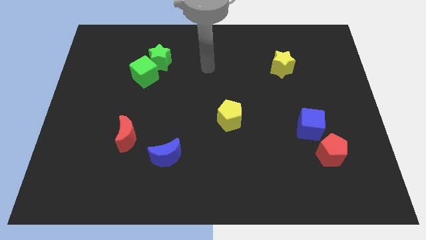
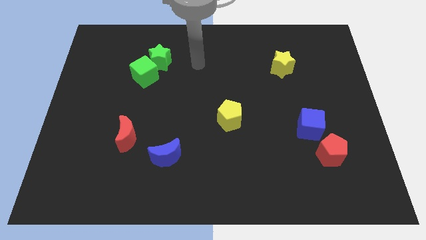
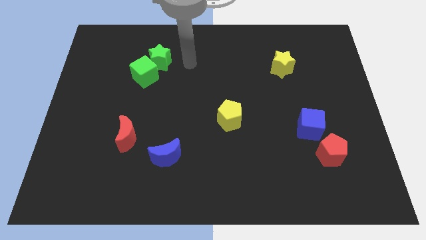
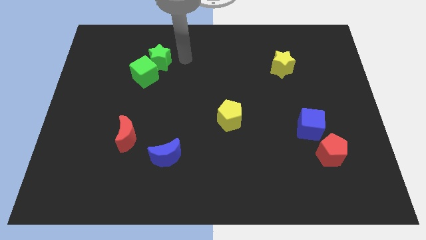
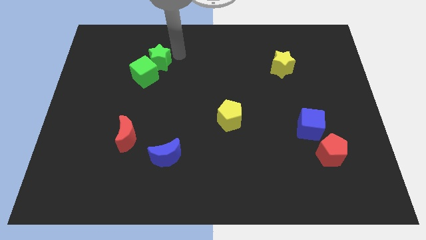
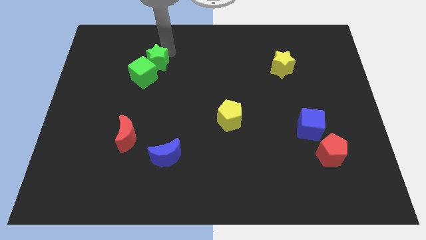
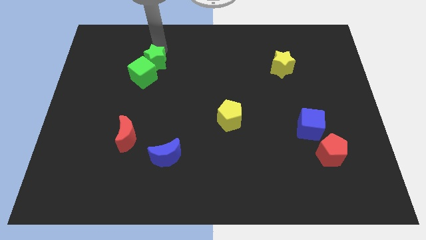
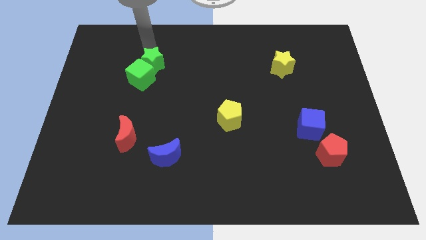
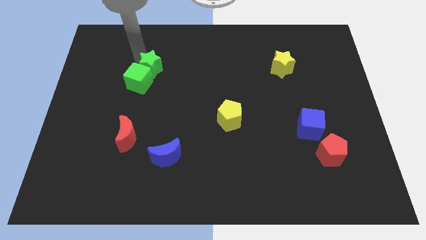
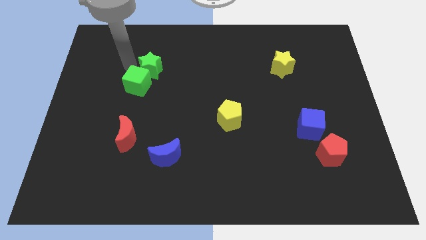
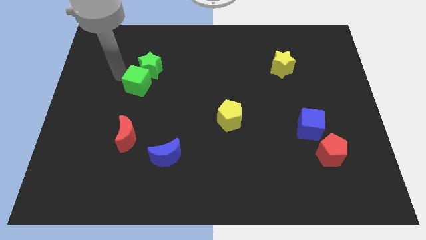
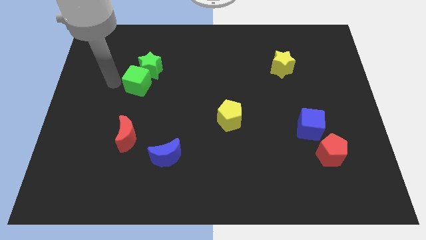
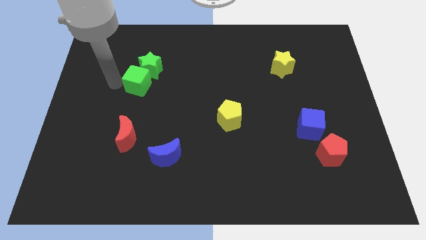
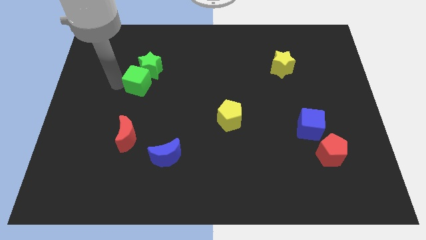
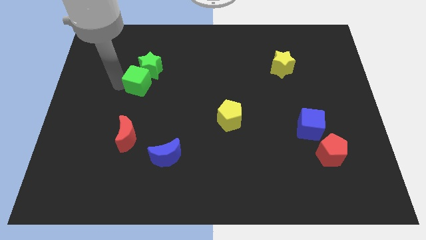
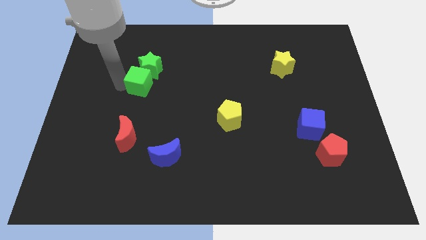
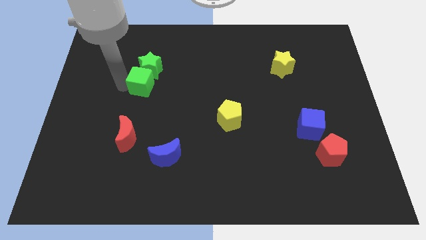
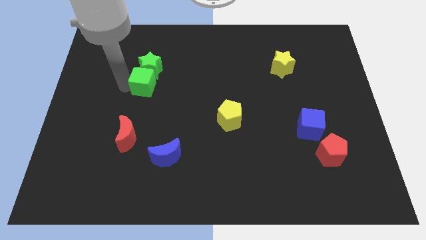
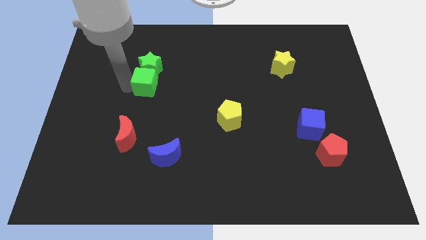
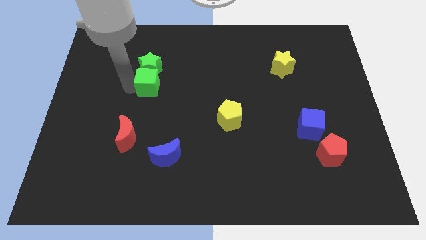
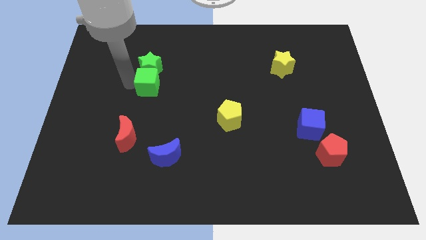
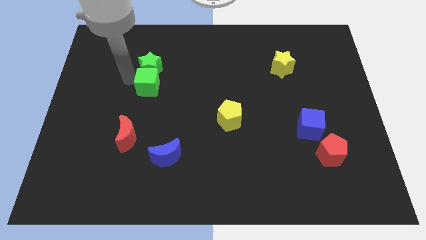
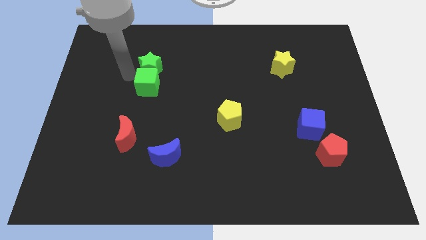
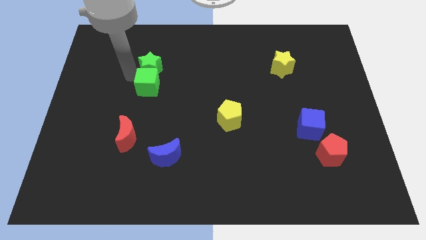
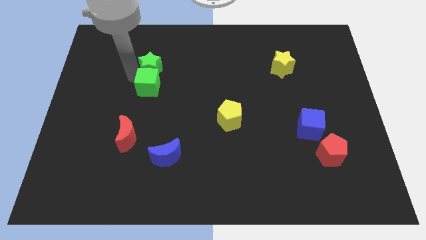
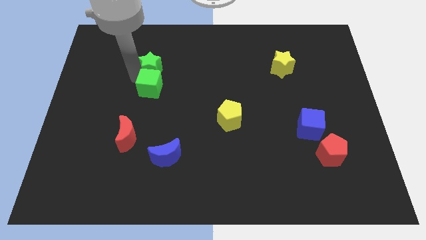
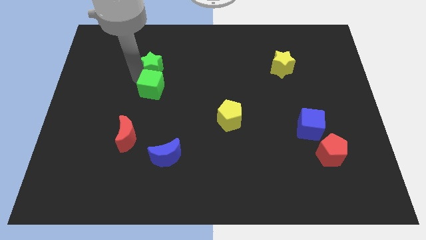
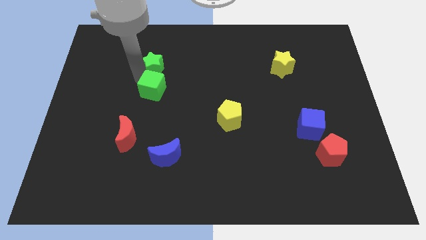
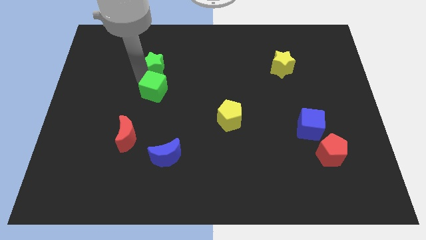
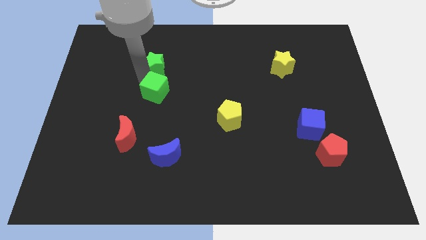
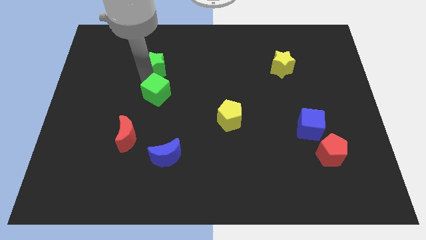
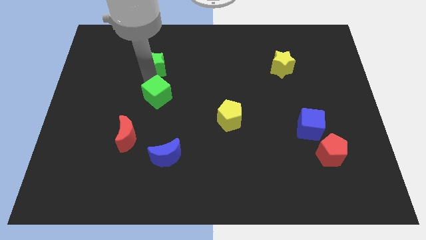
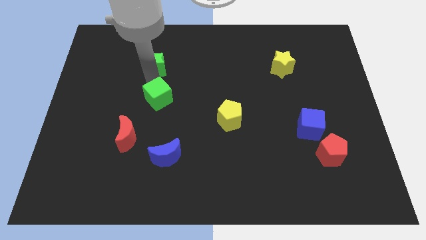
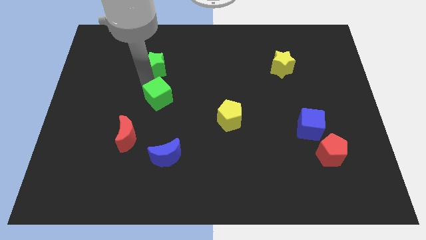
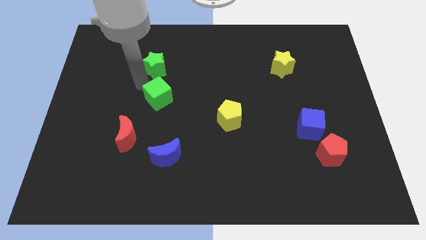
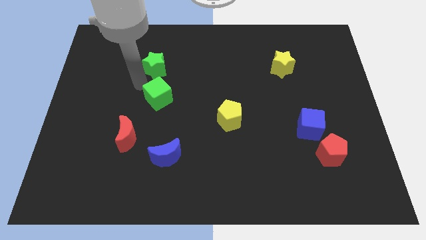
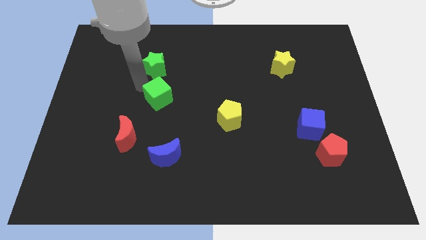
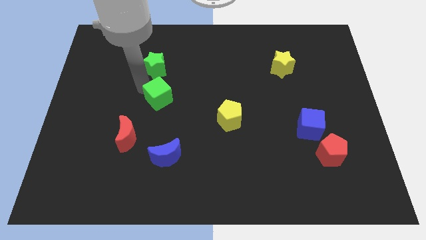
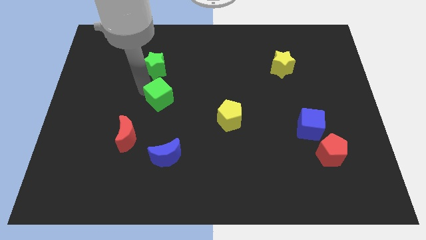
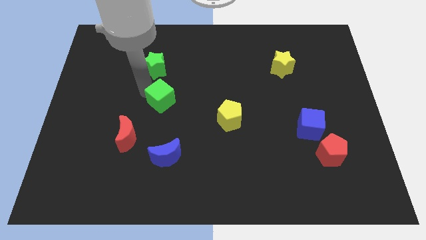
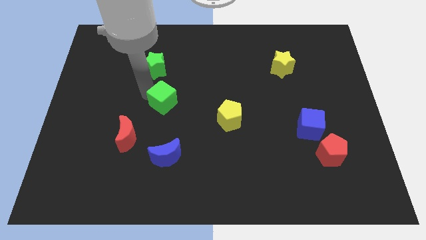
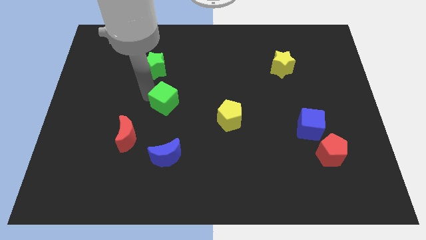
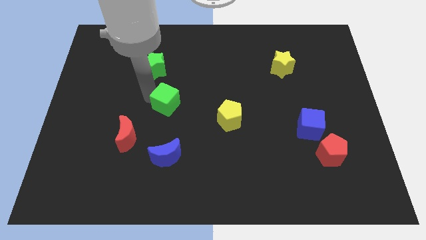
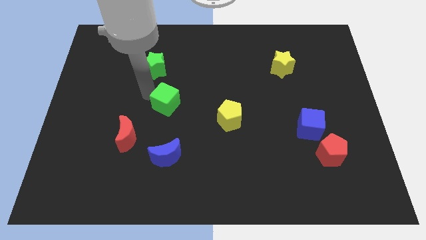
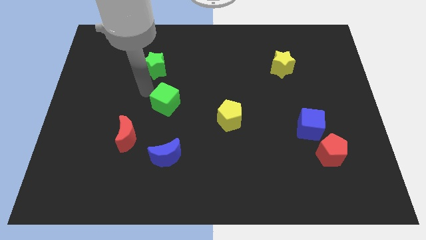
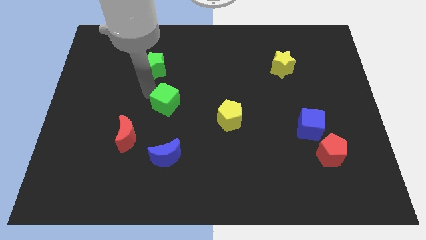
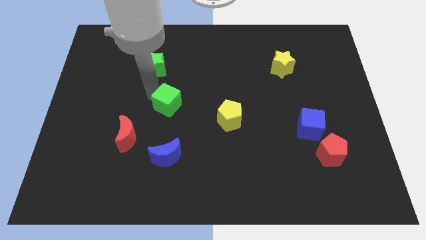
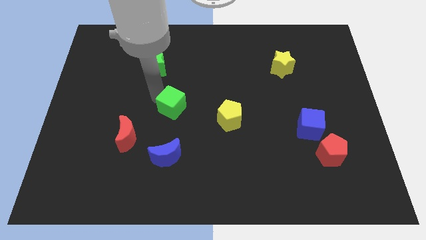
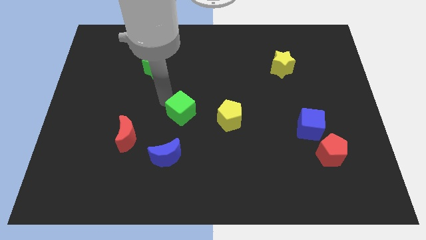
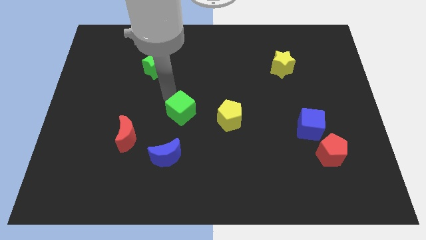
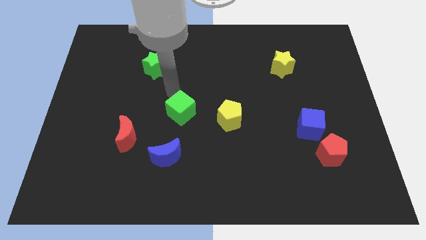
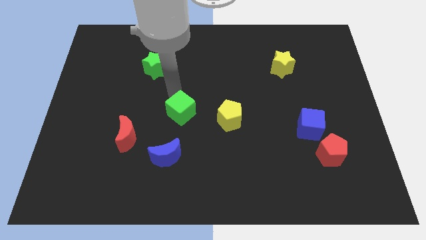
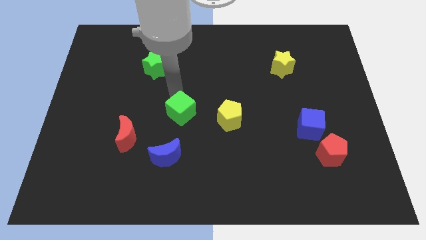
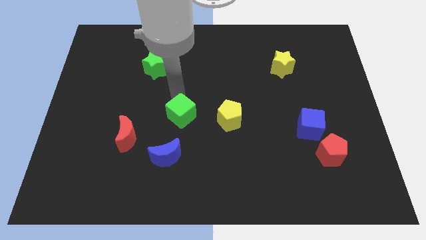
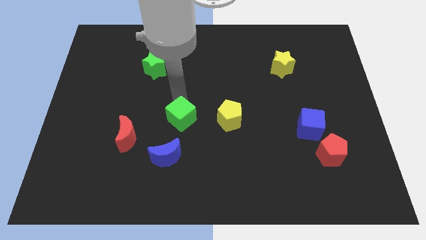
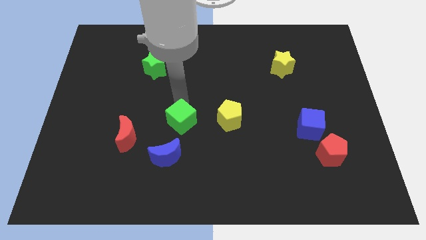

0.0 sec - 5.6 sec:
slide the green cube diagonally up and to the right of the blue moon

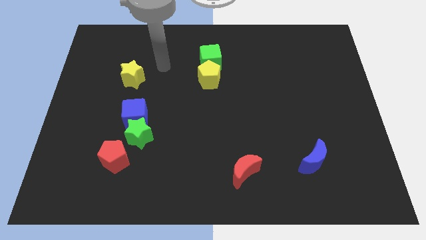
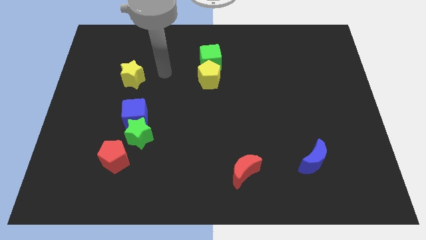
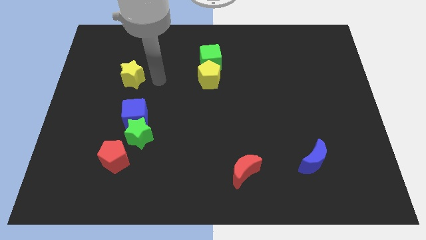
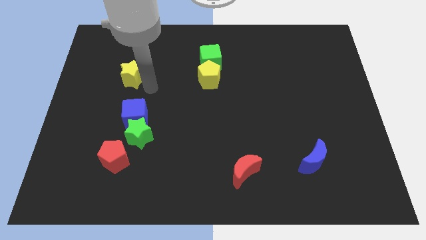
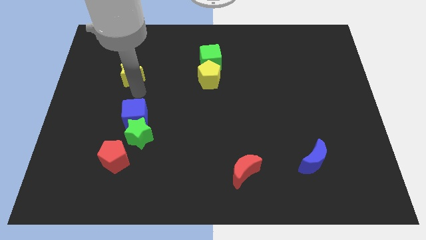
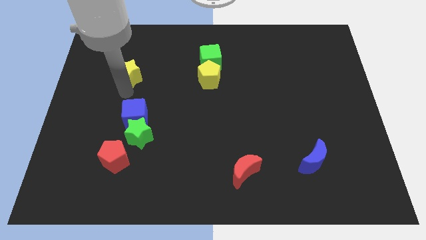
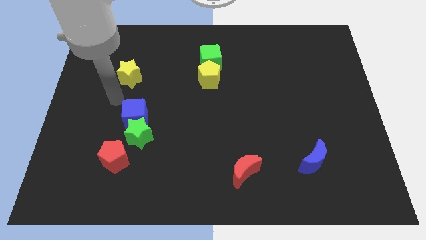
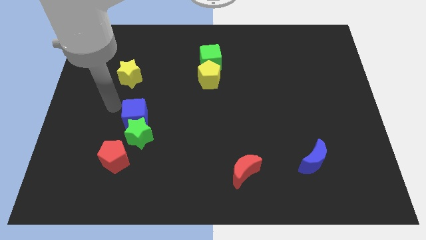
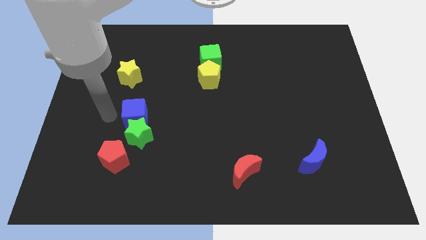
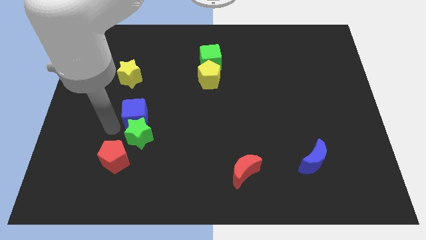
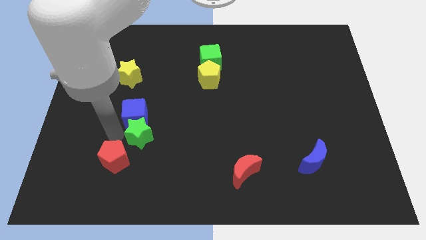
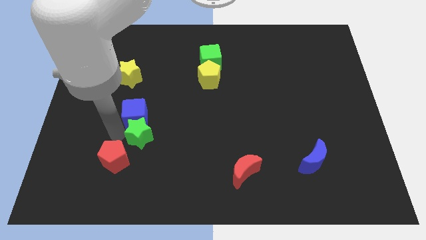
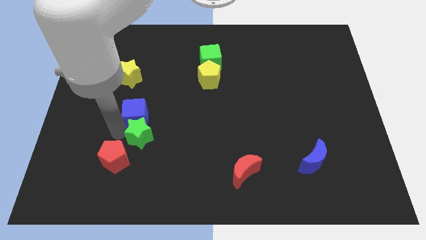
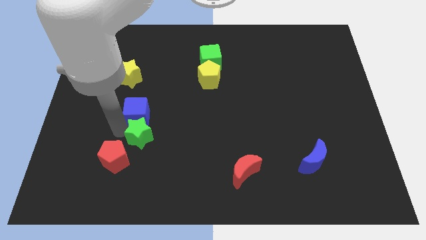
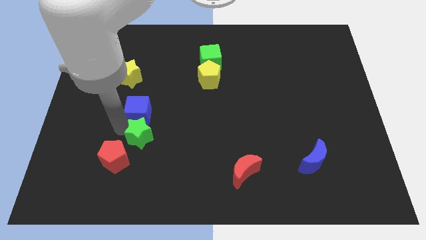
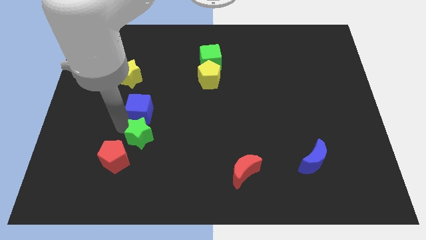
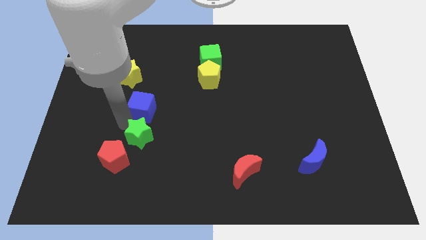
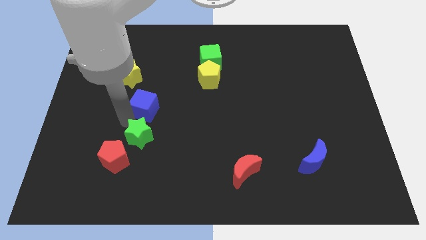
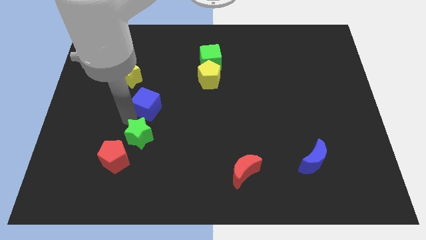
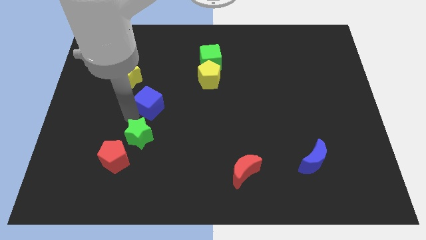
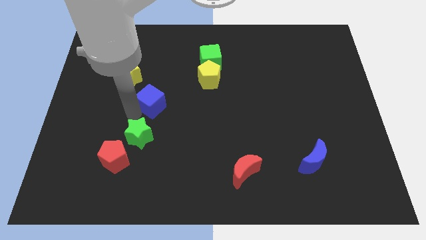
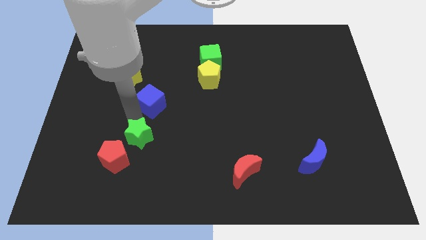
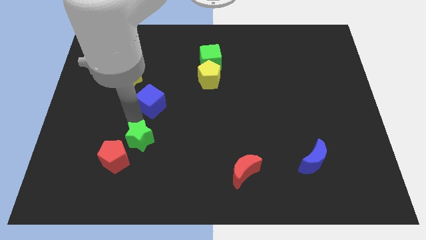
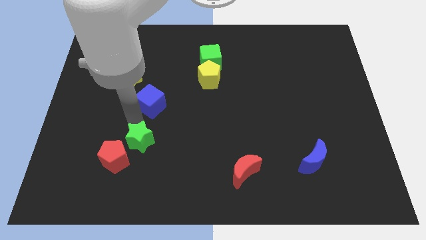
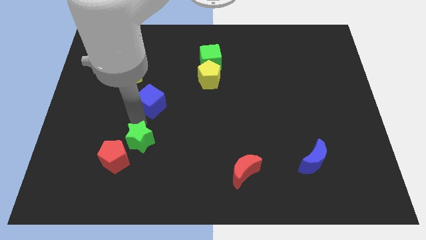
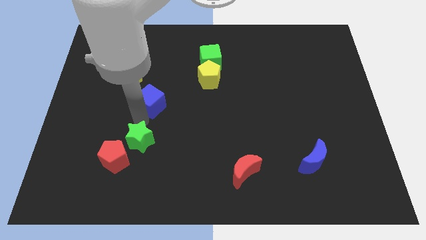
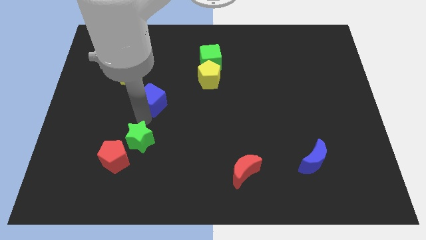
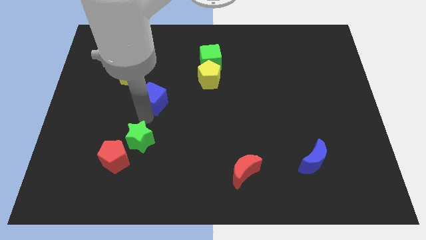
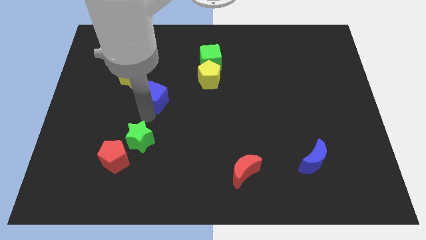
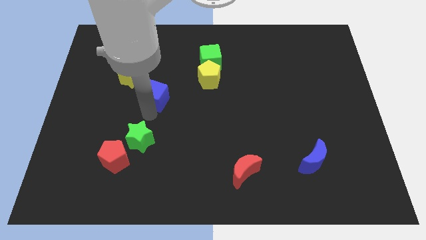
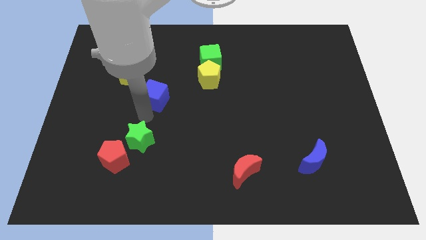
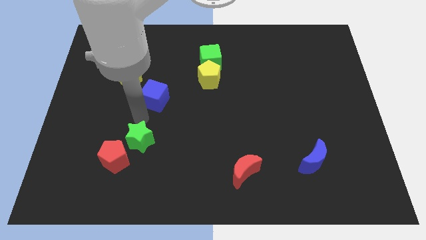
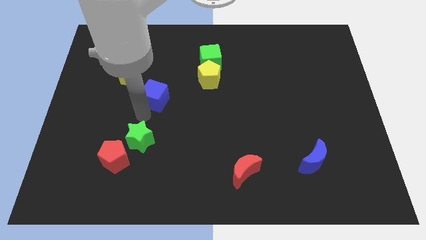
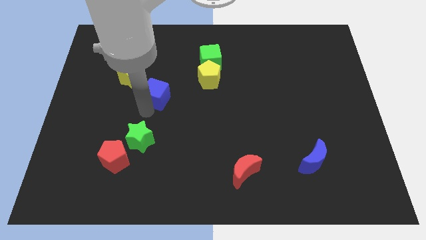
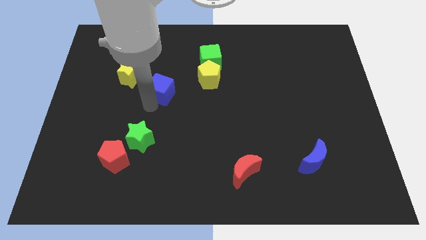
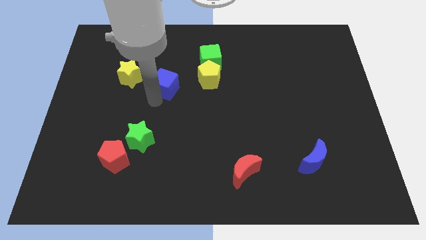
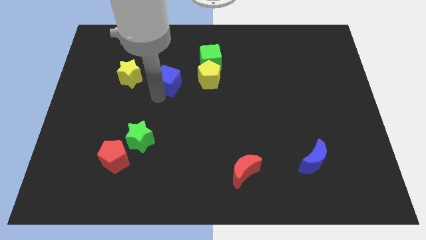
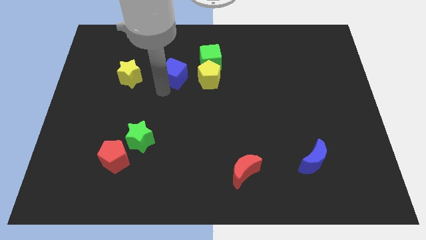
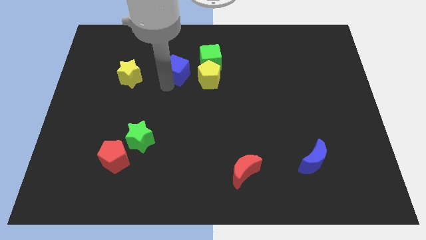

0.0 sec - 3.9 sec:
push the blue cube to the top left of the yellow pentagon
